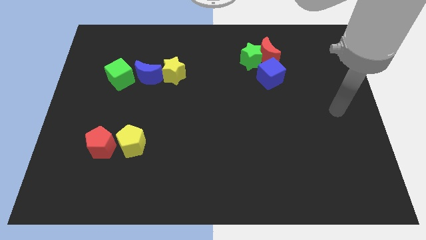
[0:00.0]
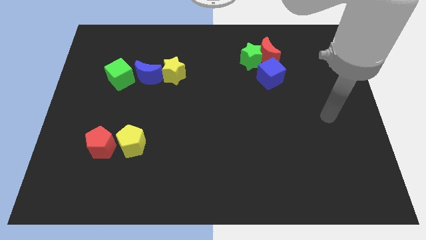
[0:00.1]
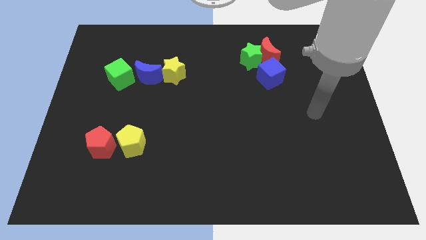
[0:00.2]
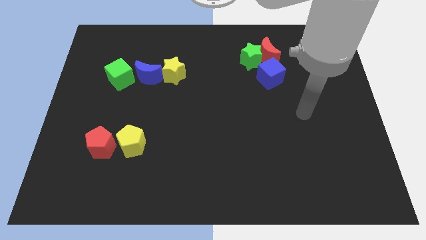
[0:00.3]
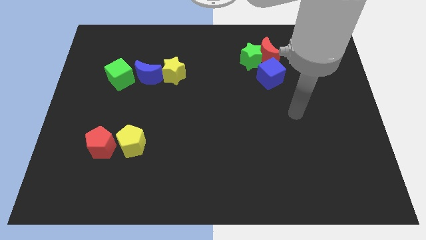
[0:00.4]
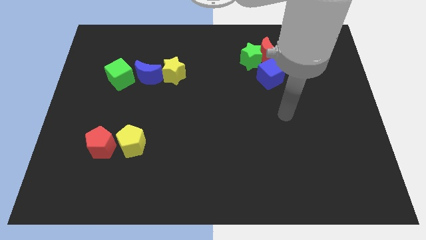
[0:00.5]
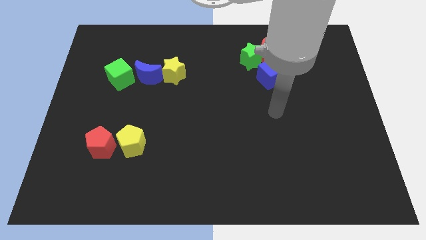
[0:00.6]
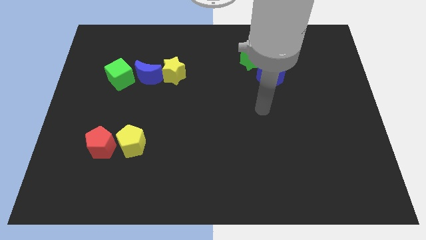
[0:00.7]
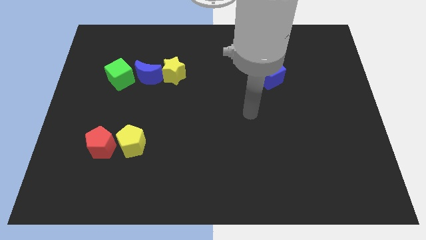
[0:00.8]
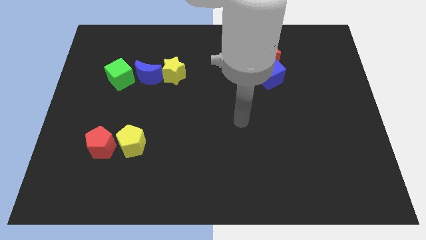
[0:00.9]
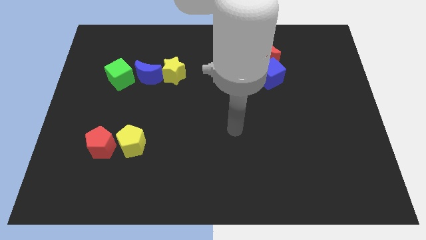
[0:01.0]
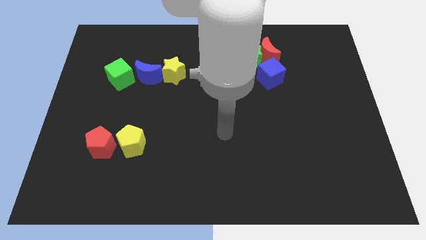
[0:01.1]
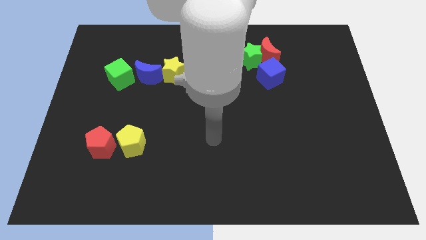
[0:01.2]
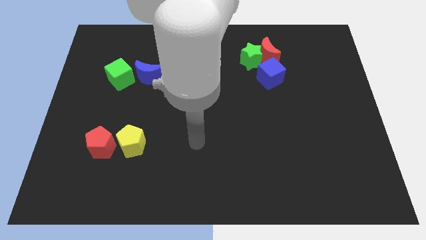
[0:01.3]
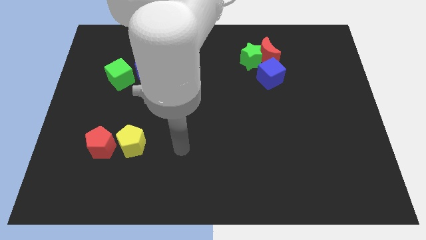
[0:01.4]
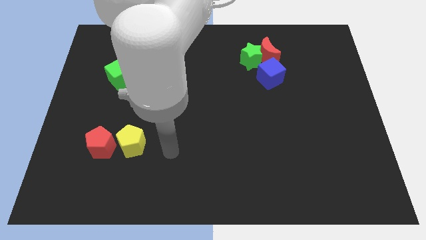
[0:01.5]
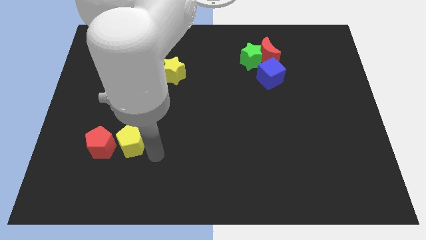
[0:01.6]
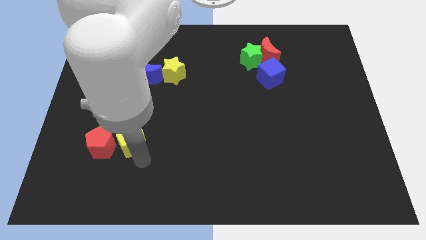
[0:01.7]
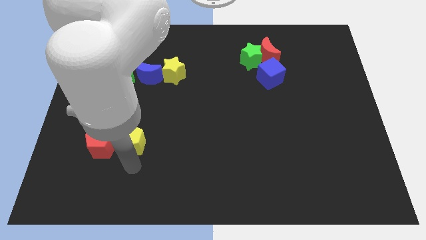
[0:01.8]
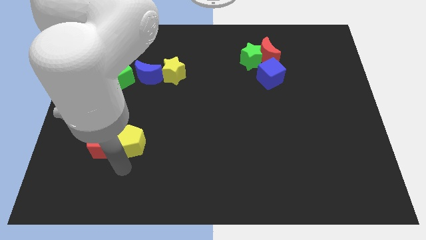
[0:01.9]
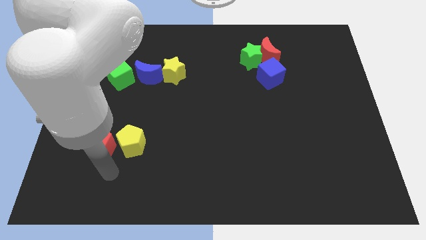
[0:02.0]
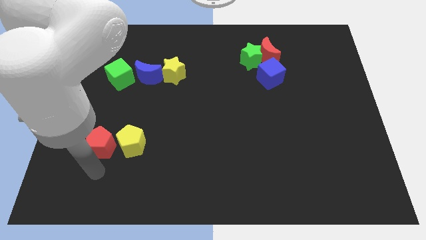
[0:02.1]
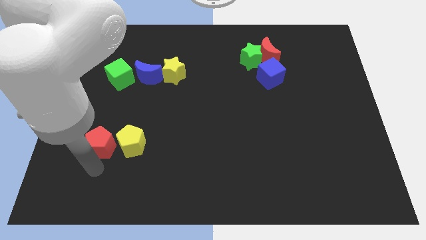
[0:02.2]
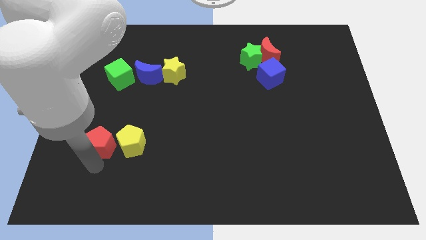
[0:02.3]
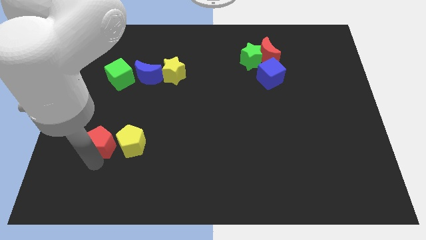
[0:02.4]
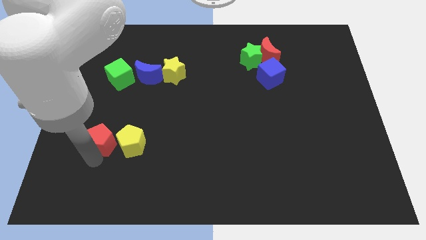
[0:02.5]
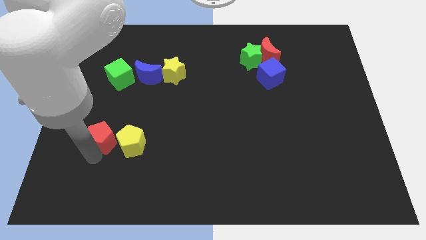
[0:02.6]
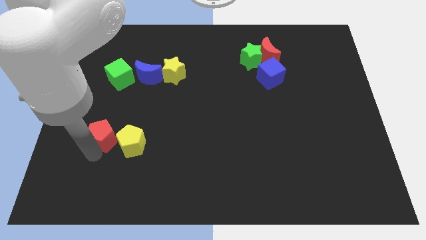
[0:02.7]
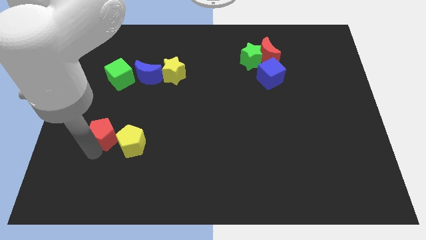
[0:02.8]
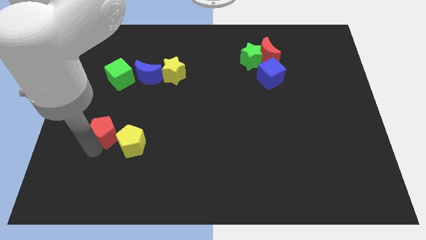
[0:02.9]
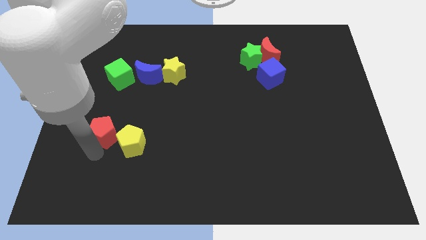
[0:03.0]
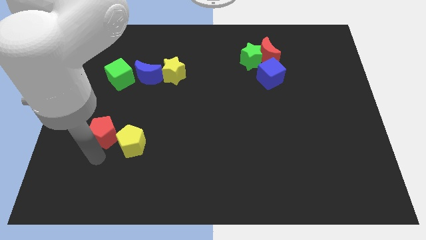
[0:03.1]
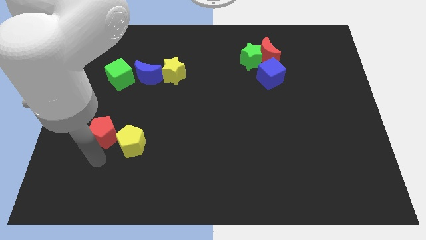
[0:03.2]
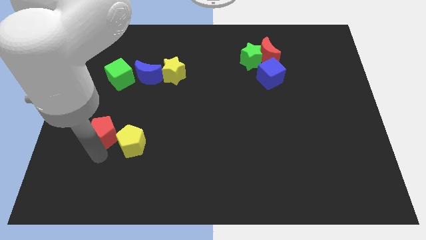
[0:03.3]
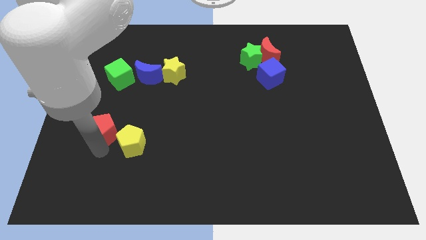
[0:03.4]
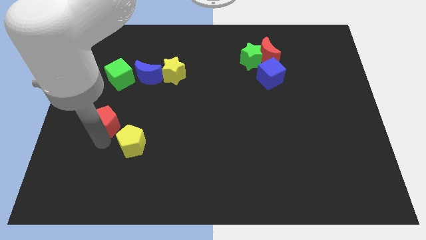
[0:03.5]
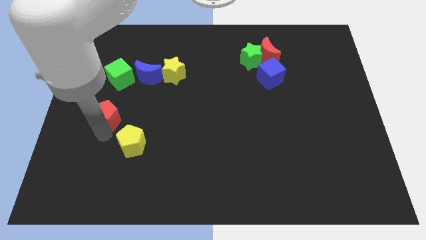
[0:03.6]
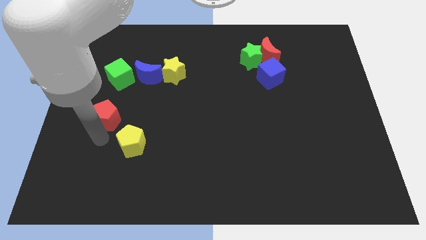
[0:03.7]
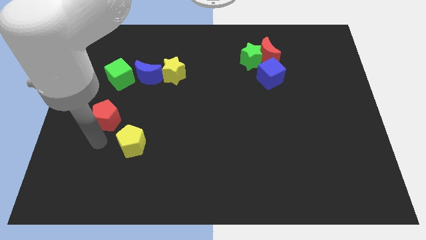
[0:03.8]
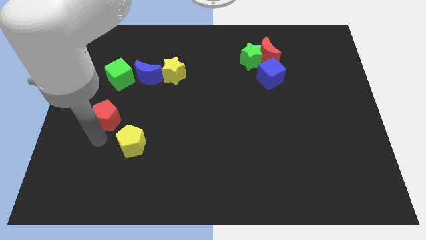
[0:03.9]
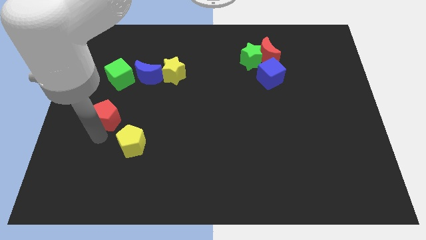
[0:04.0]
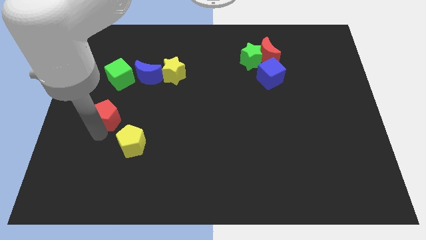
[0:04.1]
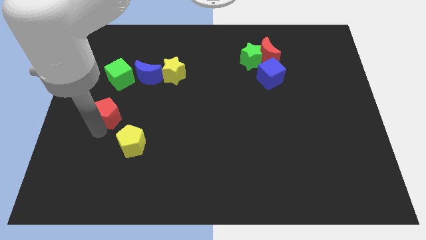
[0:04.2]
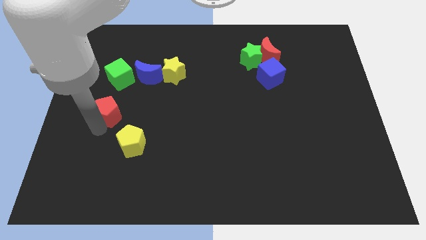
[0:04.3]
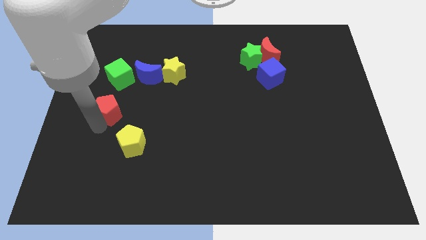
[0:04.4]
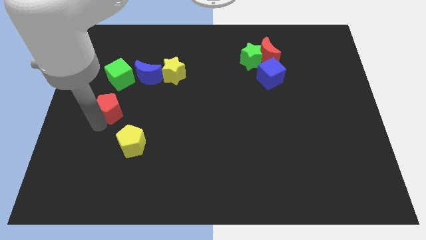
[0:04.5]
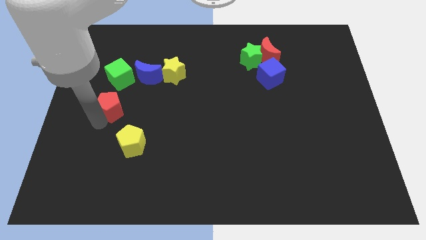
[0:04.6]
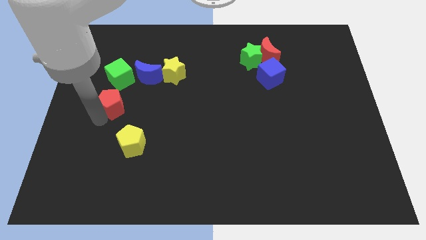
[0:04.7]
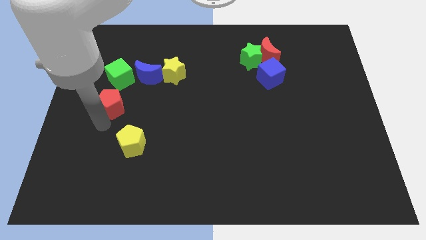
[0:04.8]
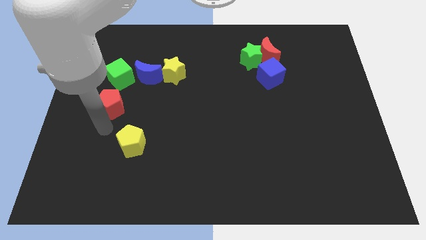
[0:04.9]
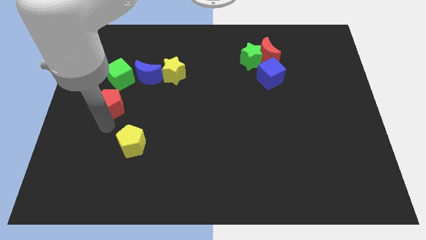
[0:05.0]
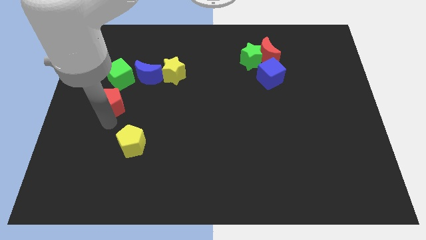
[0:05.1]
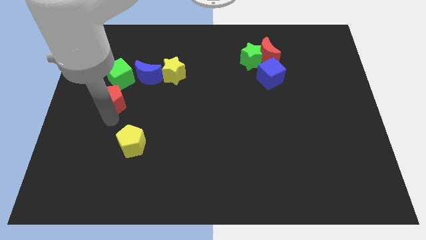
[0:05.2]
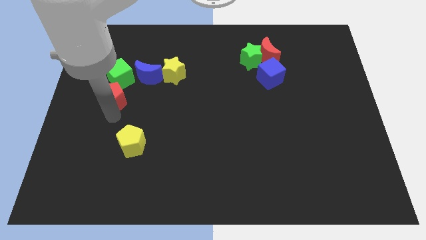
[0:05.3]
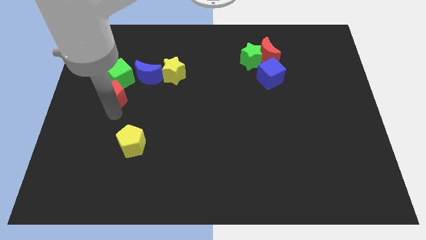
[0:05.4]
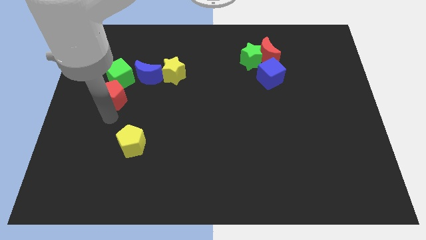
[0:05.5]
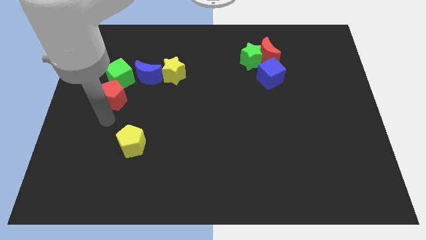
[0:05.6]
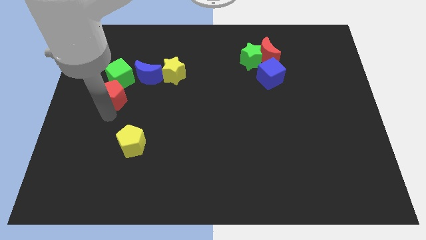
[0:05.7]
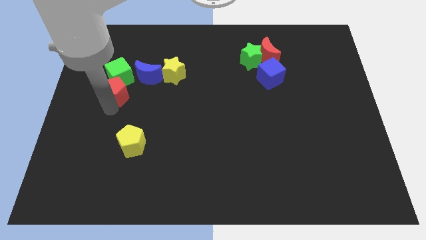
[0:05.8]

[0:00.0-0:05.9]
slide the red pentagon towards the green cube

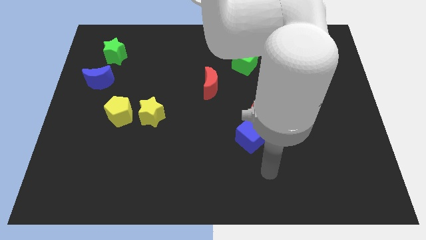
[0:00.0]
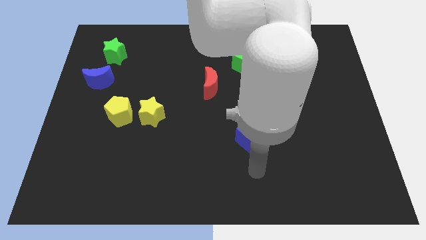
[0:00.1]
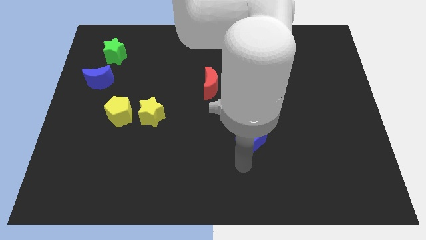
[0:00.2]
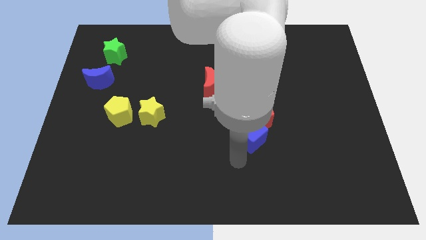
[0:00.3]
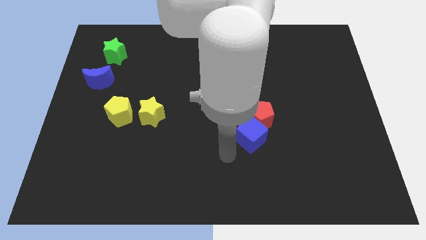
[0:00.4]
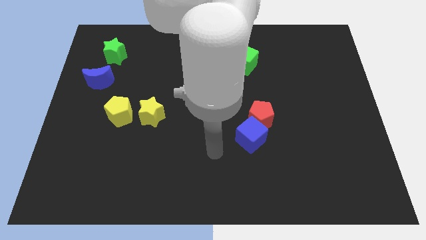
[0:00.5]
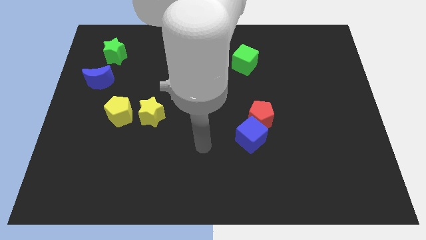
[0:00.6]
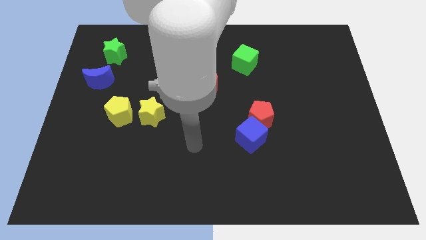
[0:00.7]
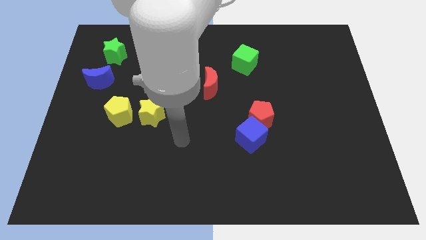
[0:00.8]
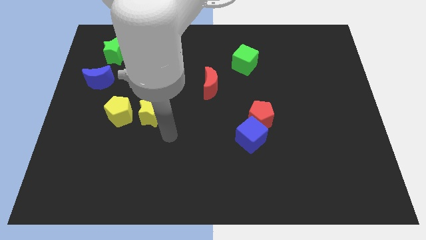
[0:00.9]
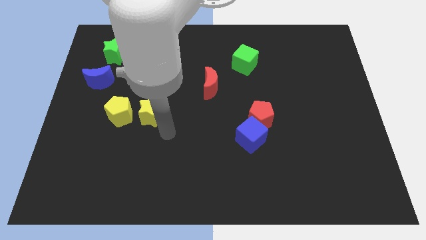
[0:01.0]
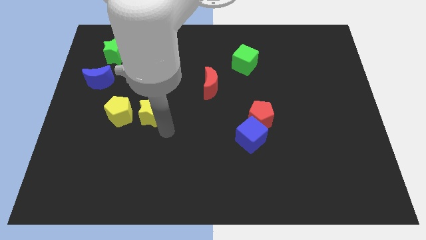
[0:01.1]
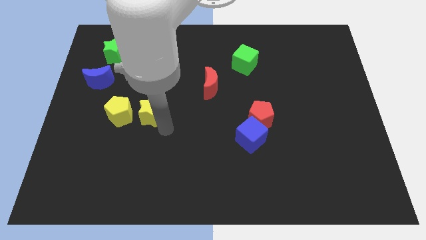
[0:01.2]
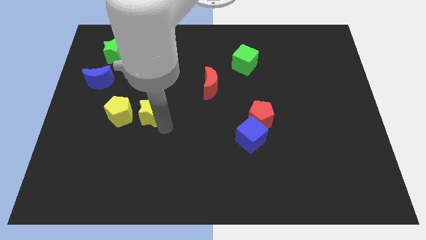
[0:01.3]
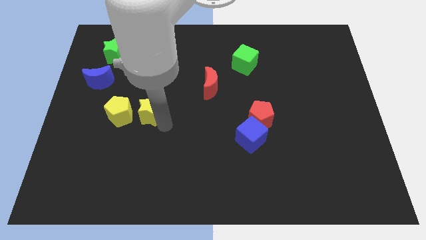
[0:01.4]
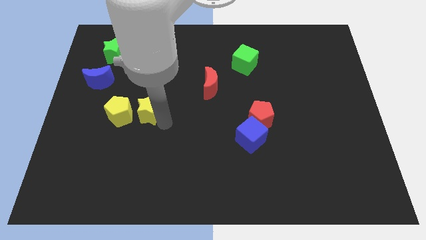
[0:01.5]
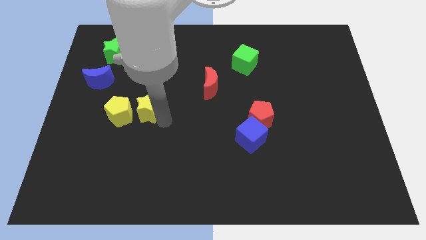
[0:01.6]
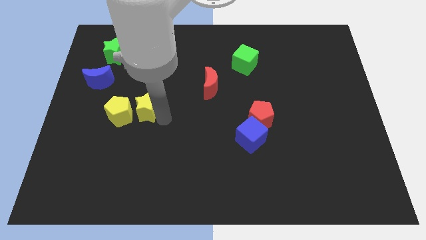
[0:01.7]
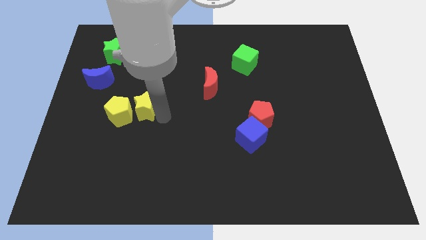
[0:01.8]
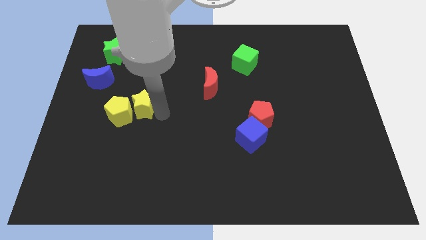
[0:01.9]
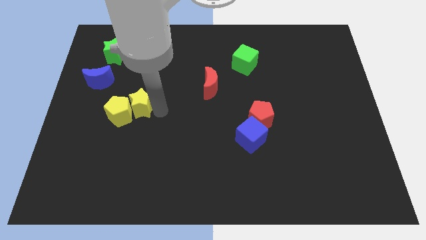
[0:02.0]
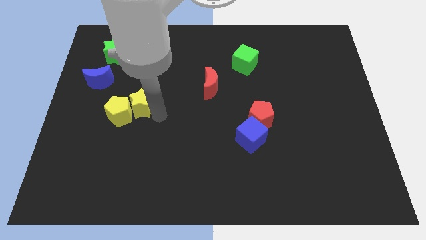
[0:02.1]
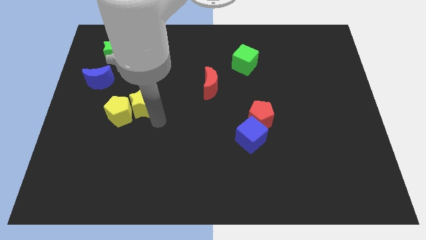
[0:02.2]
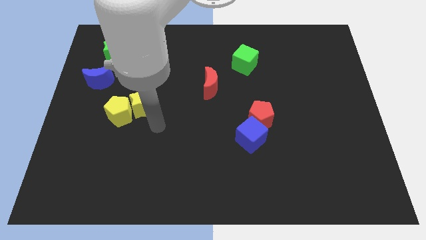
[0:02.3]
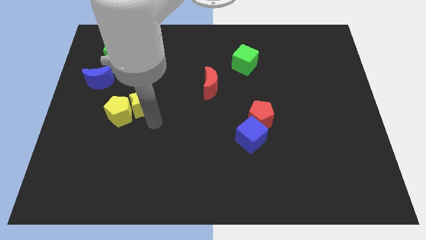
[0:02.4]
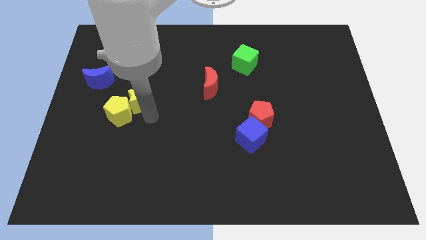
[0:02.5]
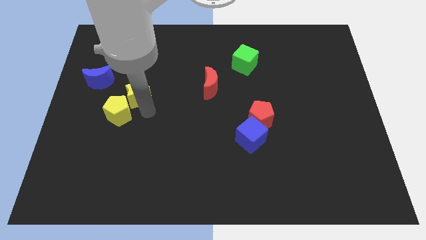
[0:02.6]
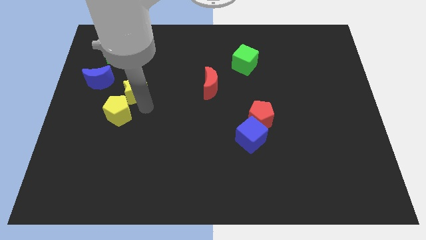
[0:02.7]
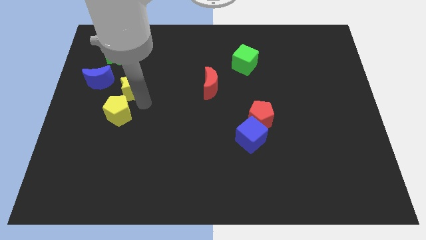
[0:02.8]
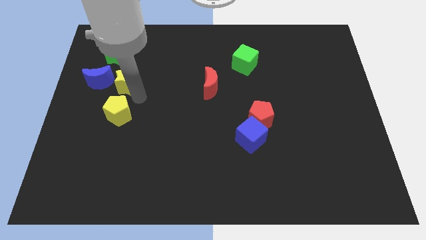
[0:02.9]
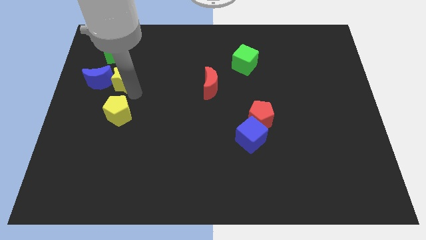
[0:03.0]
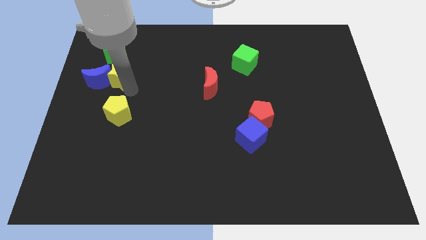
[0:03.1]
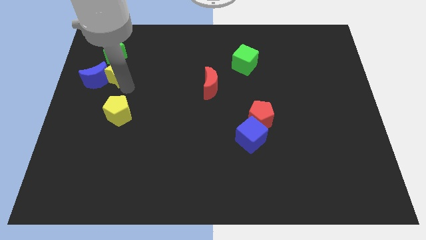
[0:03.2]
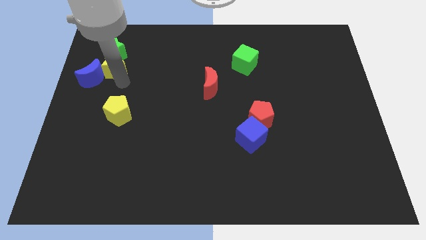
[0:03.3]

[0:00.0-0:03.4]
move the yellow star next to the green star
